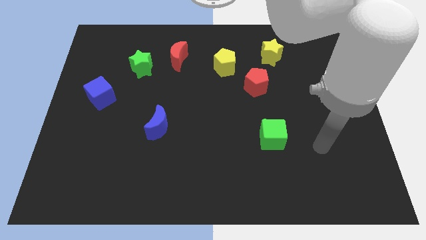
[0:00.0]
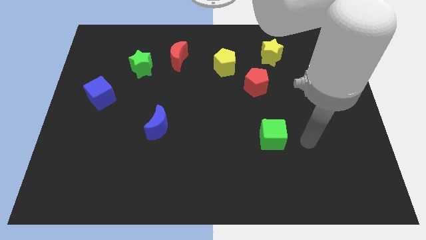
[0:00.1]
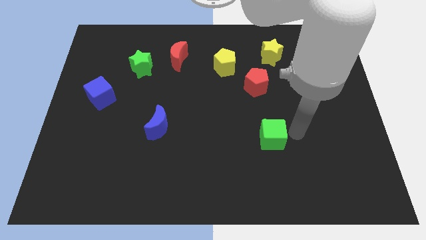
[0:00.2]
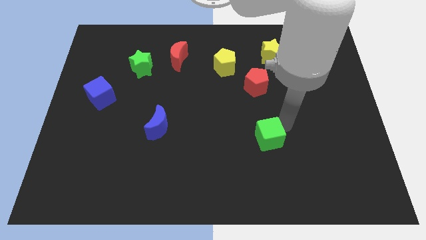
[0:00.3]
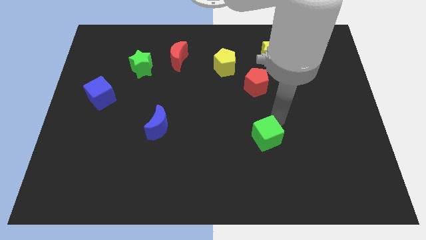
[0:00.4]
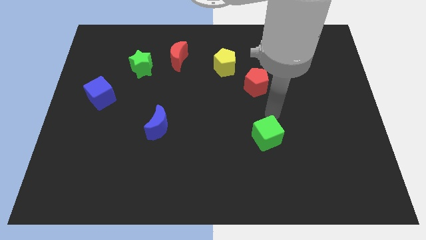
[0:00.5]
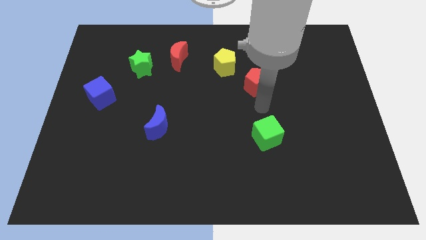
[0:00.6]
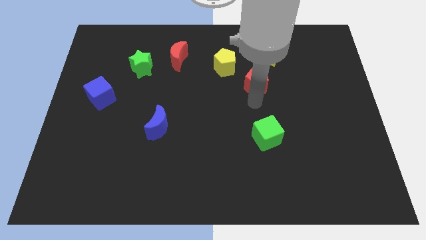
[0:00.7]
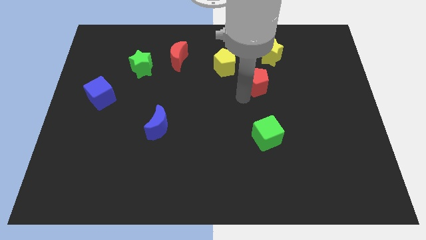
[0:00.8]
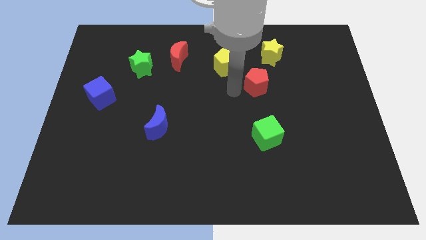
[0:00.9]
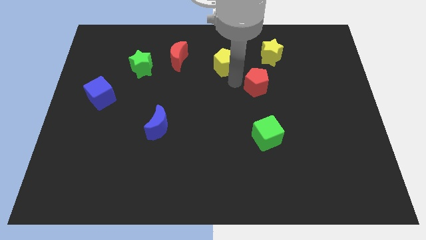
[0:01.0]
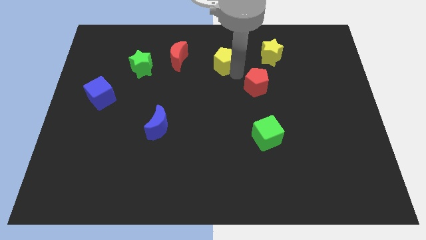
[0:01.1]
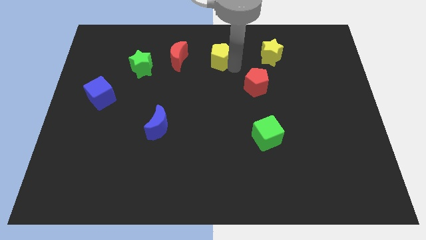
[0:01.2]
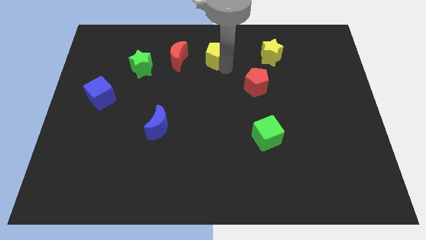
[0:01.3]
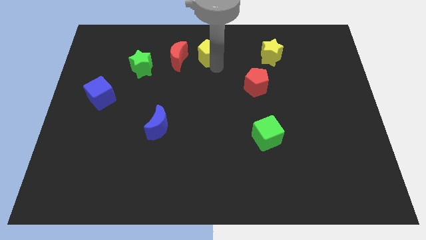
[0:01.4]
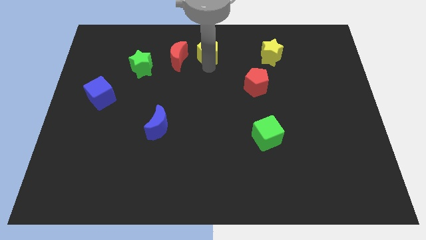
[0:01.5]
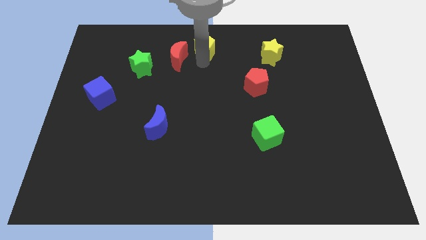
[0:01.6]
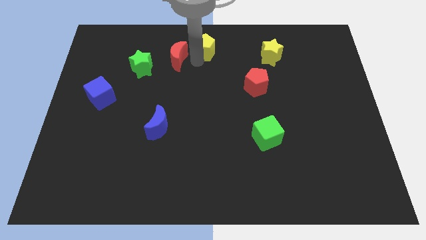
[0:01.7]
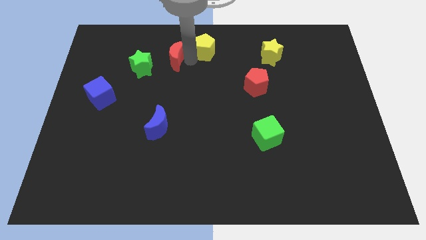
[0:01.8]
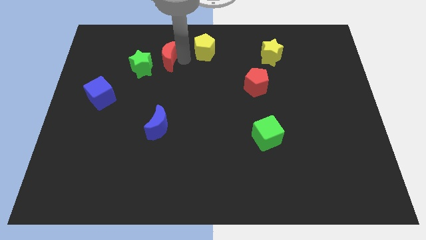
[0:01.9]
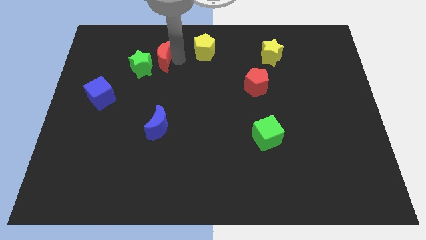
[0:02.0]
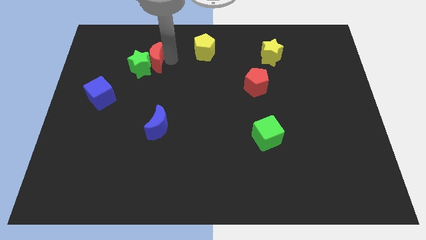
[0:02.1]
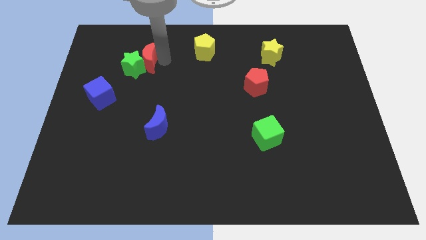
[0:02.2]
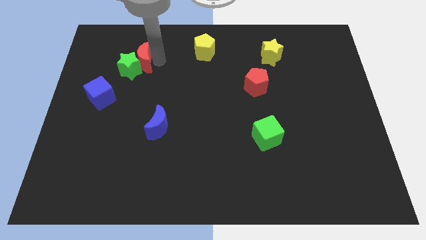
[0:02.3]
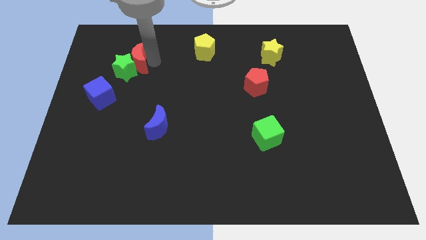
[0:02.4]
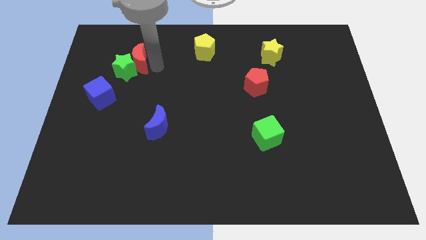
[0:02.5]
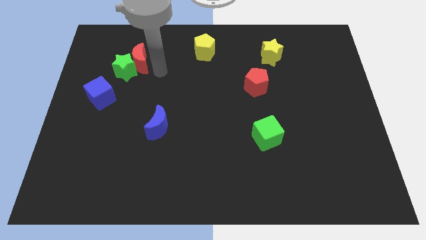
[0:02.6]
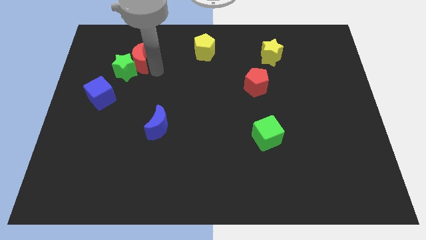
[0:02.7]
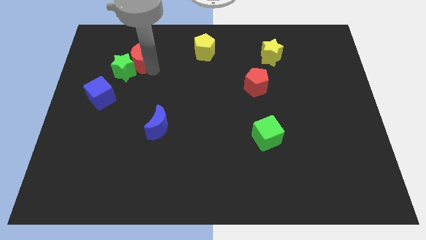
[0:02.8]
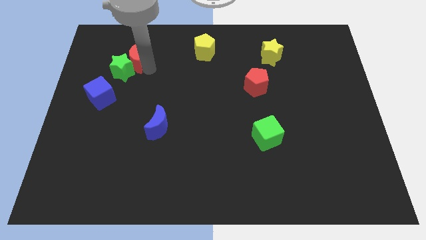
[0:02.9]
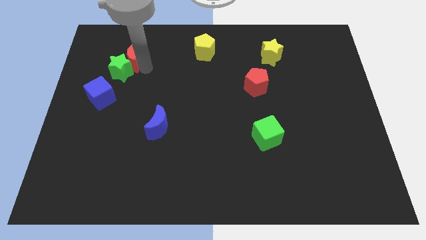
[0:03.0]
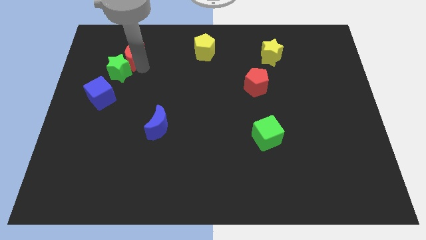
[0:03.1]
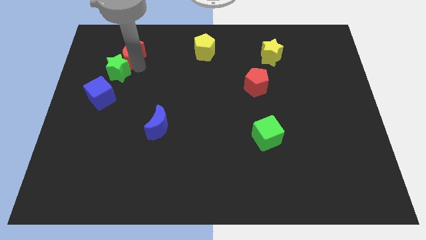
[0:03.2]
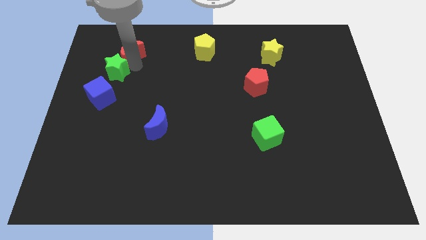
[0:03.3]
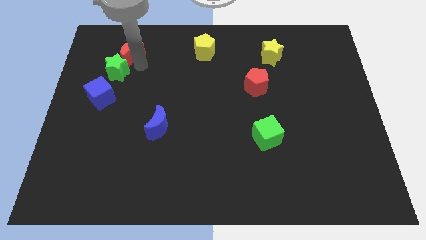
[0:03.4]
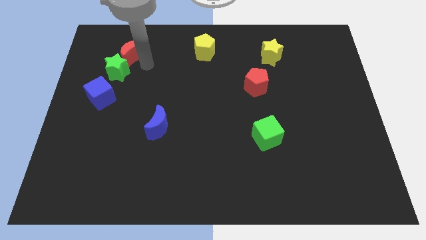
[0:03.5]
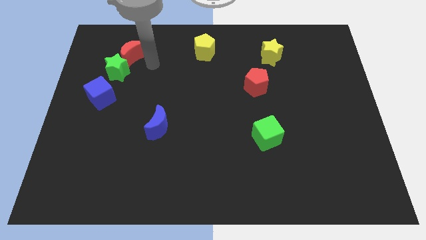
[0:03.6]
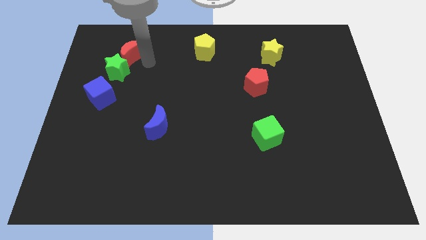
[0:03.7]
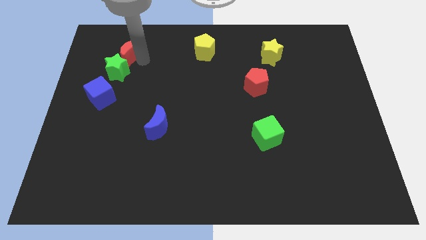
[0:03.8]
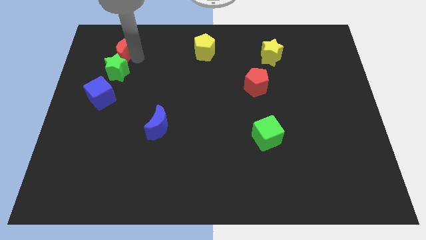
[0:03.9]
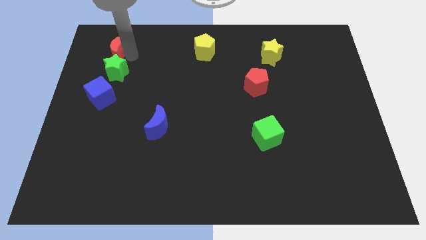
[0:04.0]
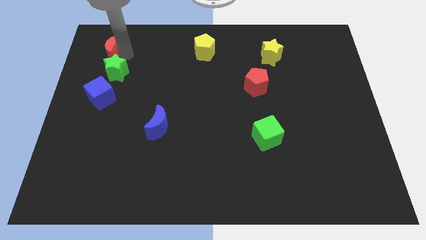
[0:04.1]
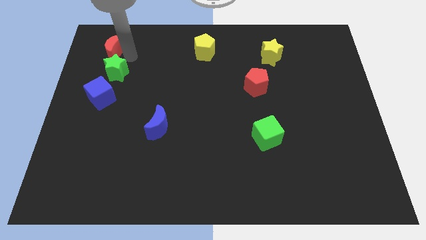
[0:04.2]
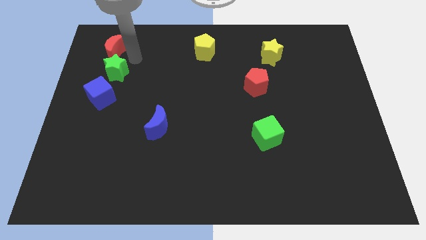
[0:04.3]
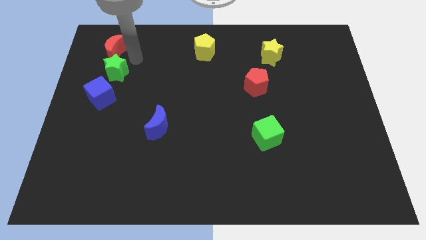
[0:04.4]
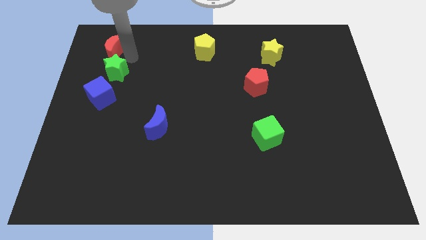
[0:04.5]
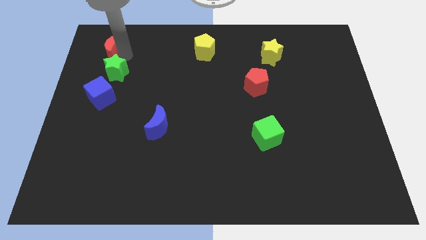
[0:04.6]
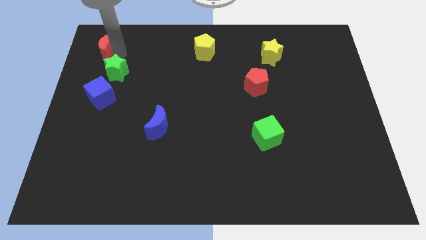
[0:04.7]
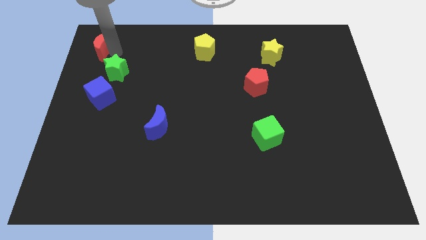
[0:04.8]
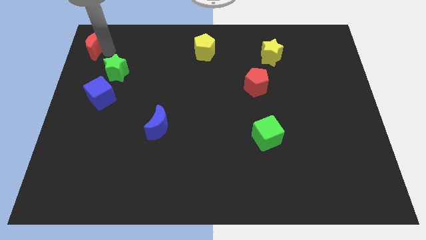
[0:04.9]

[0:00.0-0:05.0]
push the red moon to the top left of the board

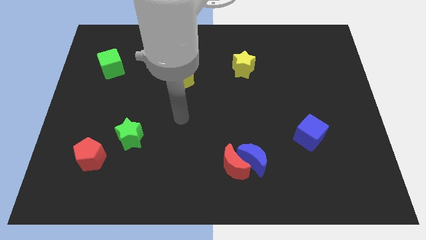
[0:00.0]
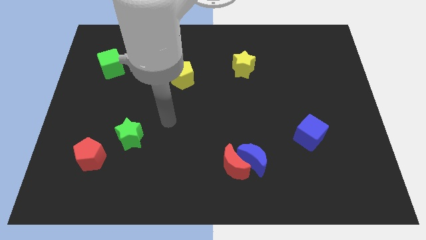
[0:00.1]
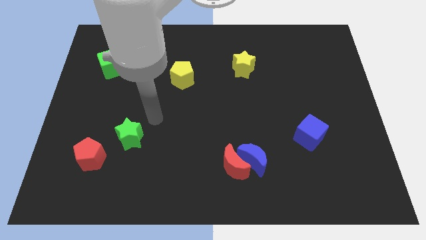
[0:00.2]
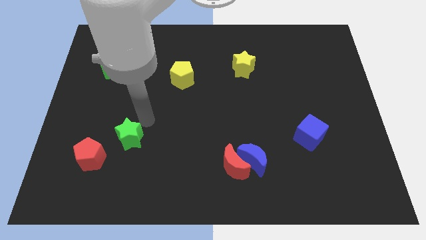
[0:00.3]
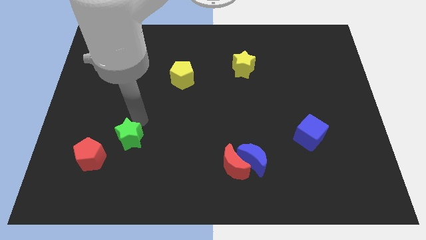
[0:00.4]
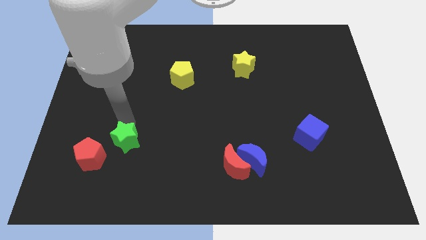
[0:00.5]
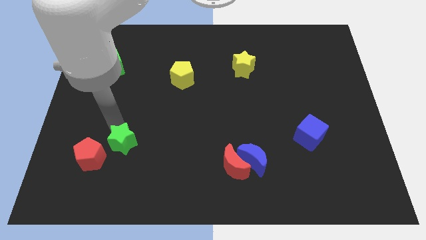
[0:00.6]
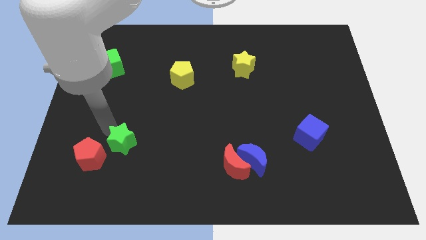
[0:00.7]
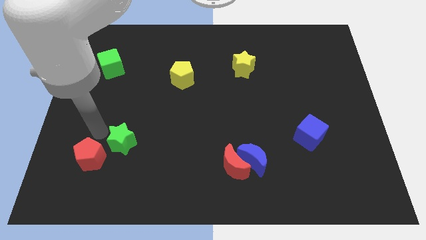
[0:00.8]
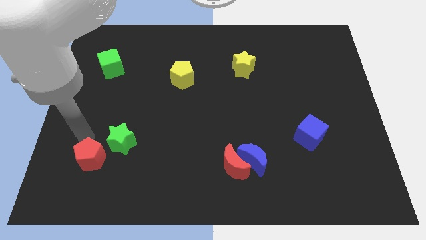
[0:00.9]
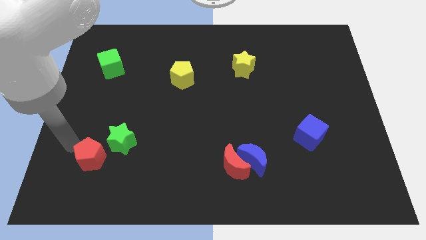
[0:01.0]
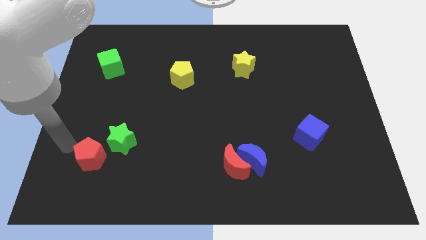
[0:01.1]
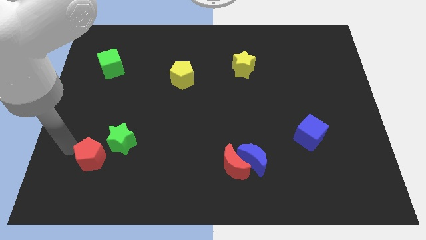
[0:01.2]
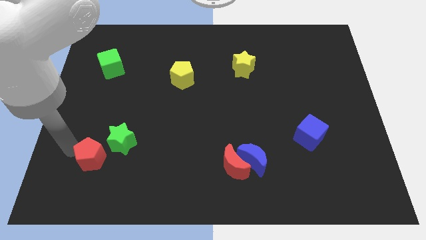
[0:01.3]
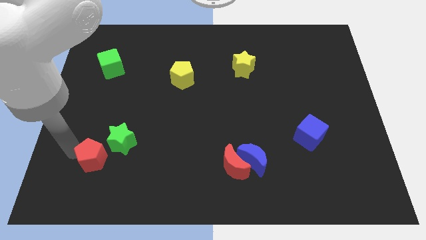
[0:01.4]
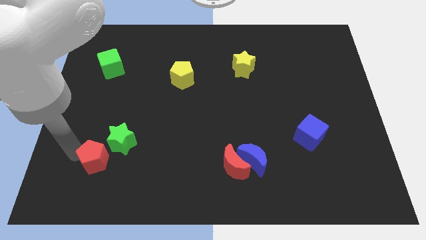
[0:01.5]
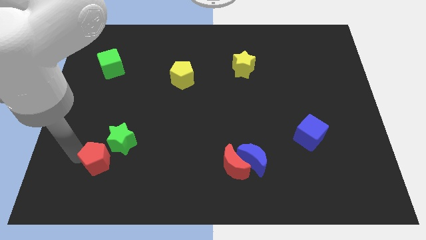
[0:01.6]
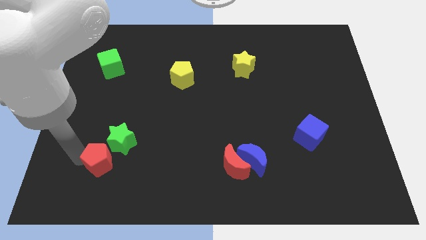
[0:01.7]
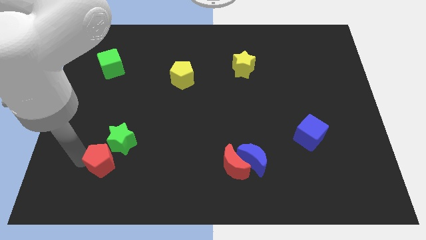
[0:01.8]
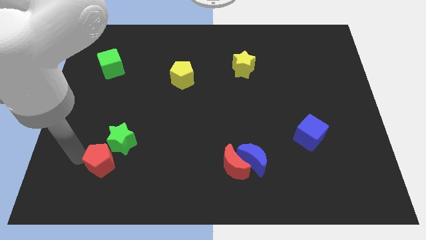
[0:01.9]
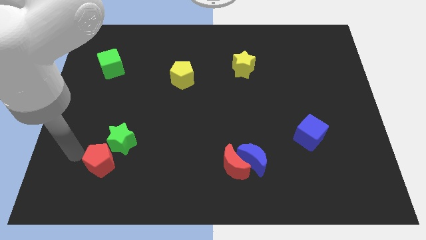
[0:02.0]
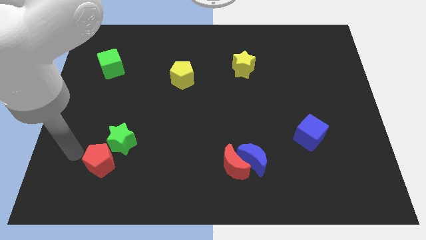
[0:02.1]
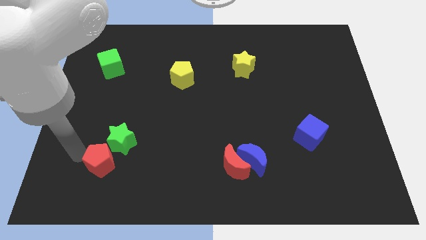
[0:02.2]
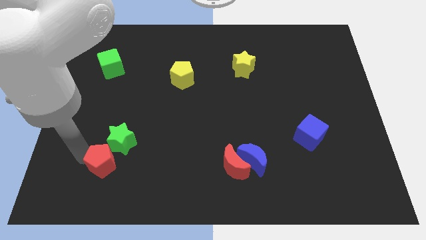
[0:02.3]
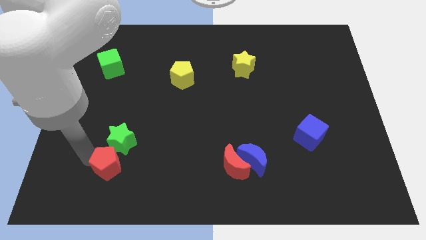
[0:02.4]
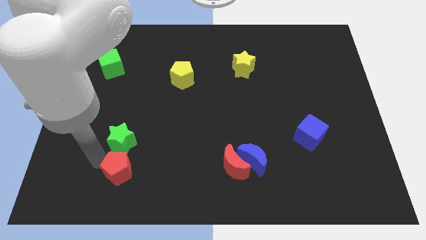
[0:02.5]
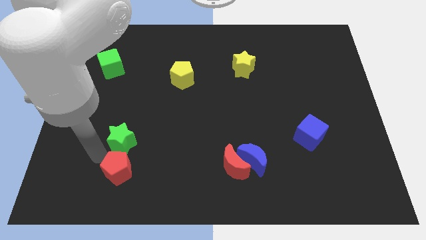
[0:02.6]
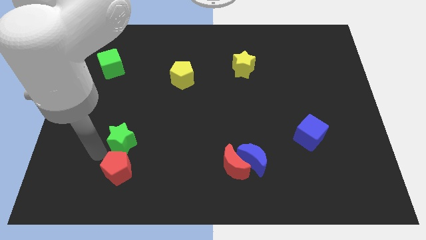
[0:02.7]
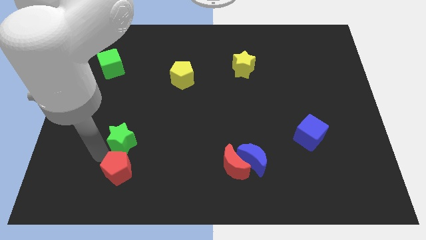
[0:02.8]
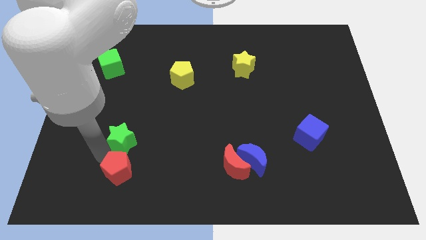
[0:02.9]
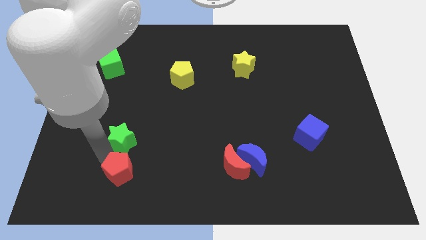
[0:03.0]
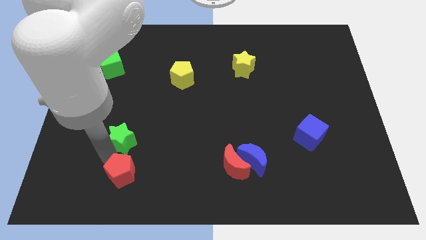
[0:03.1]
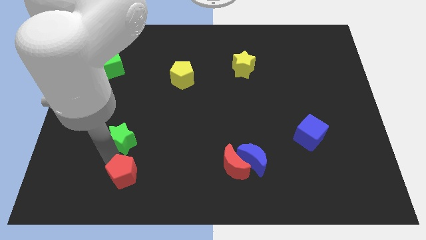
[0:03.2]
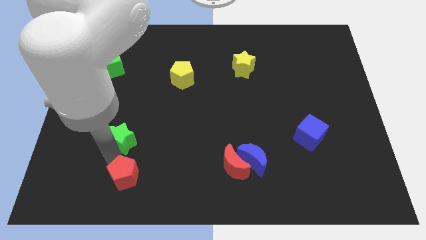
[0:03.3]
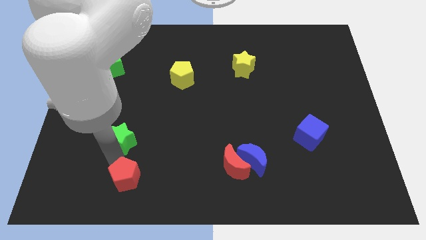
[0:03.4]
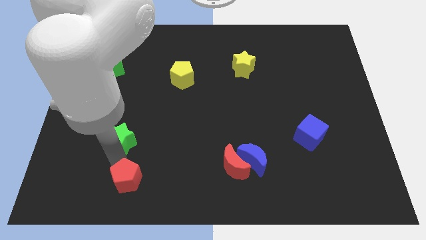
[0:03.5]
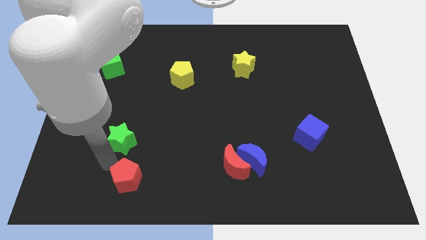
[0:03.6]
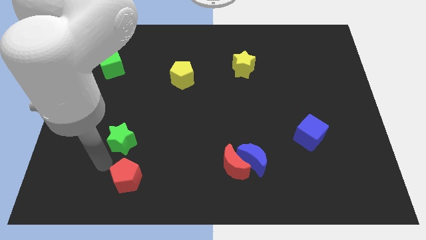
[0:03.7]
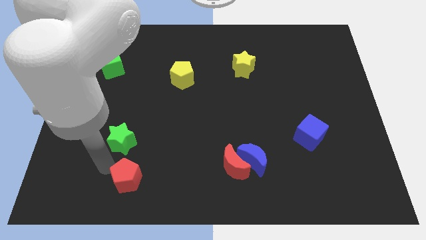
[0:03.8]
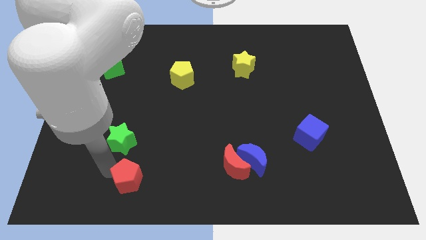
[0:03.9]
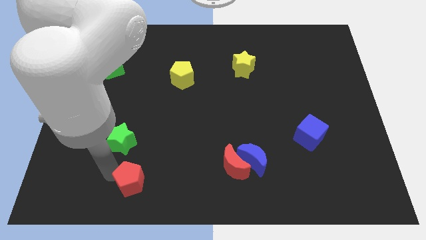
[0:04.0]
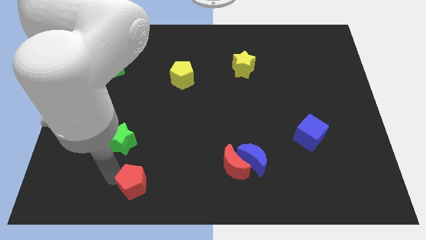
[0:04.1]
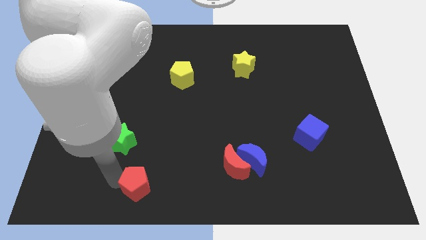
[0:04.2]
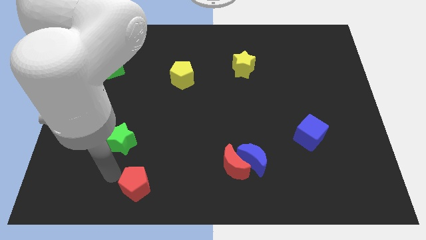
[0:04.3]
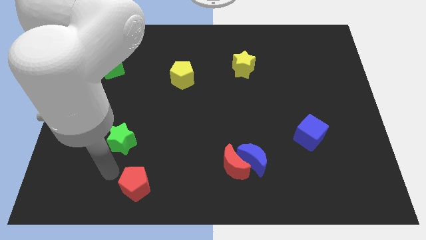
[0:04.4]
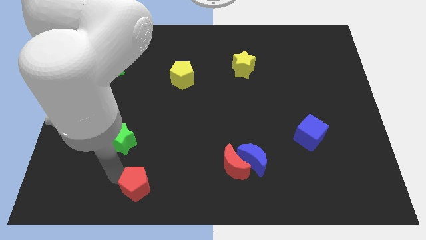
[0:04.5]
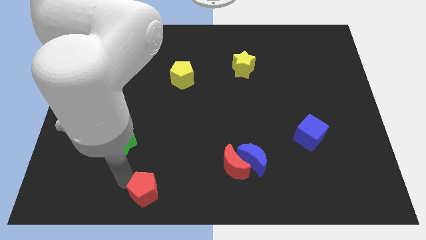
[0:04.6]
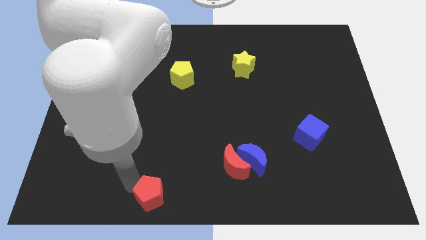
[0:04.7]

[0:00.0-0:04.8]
slide the red pentagon to the bottom
